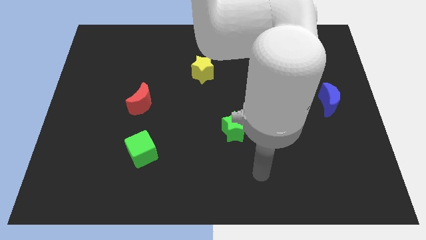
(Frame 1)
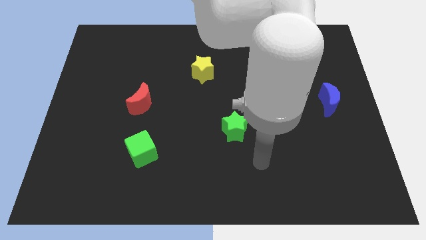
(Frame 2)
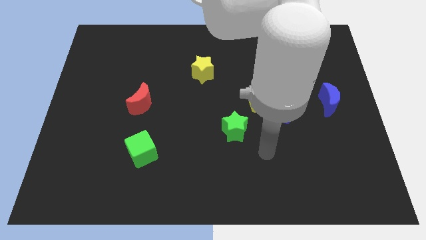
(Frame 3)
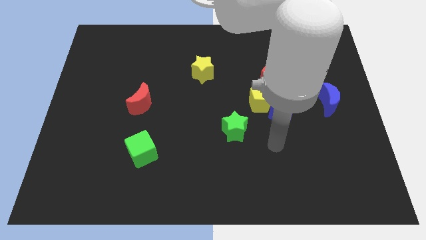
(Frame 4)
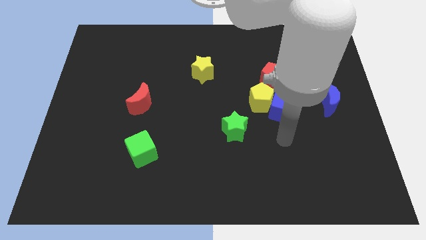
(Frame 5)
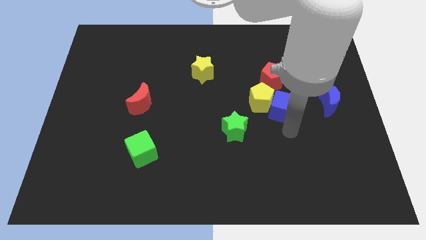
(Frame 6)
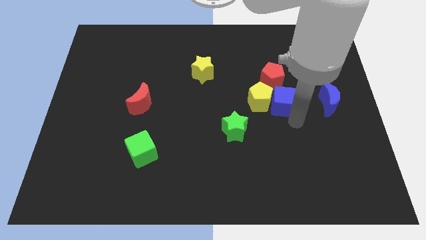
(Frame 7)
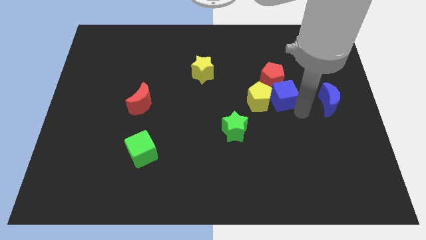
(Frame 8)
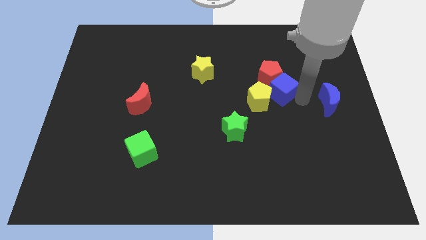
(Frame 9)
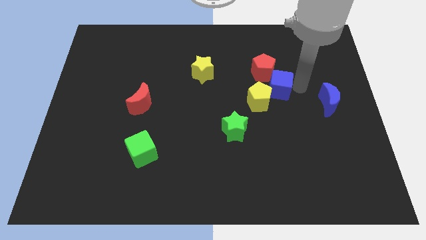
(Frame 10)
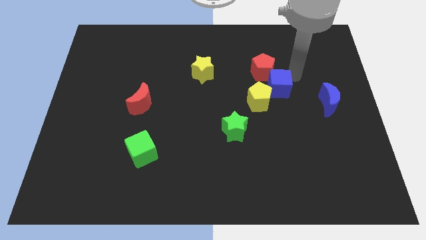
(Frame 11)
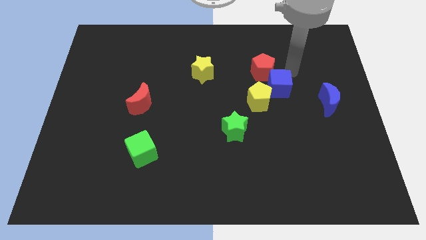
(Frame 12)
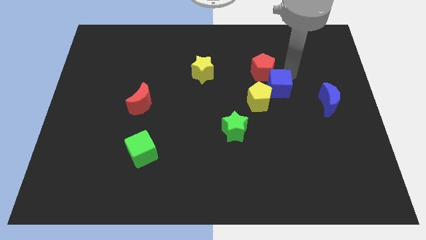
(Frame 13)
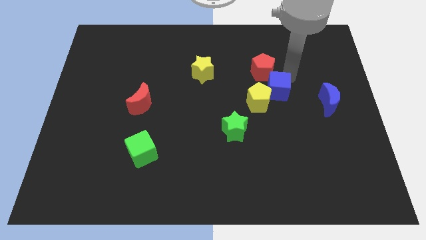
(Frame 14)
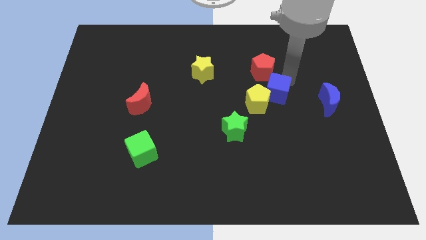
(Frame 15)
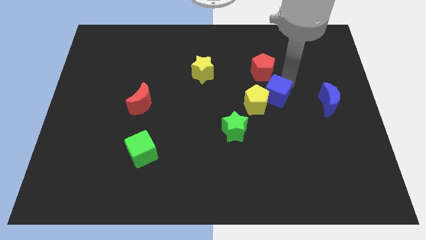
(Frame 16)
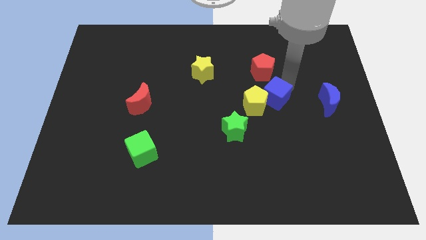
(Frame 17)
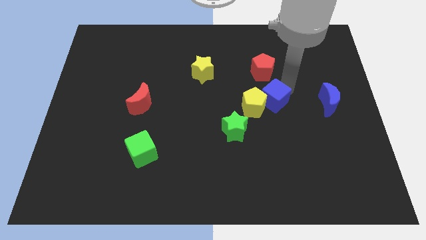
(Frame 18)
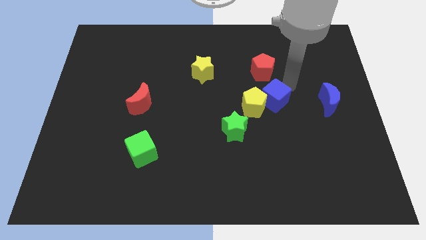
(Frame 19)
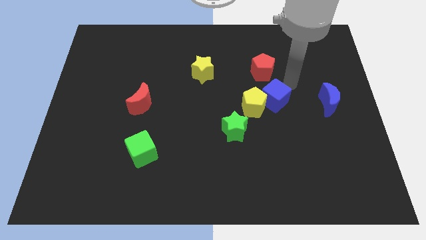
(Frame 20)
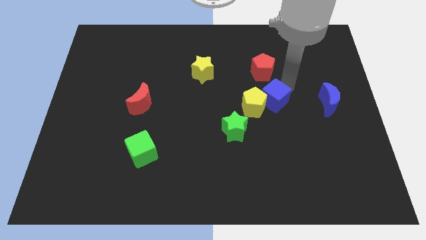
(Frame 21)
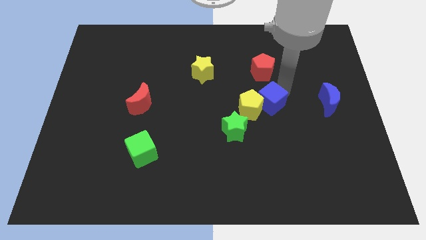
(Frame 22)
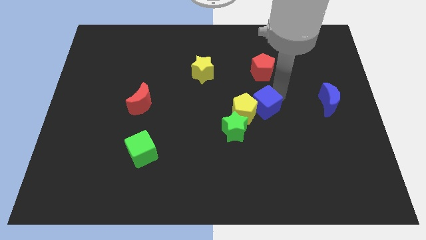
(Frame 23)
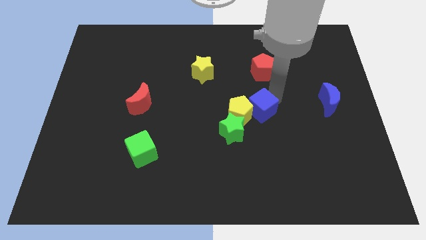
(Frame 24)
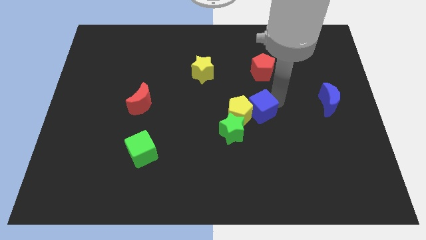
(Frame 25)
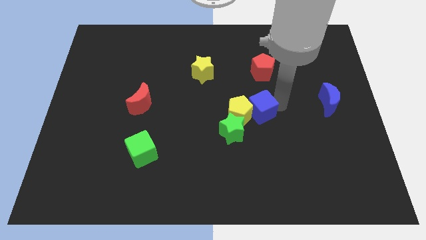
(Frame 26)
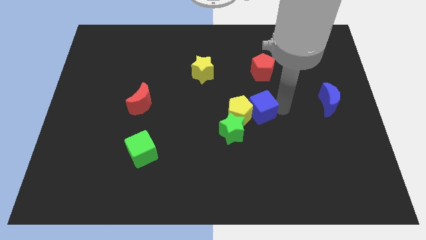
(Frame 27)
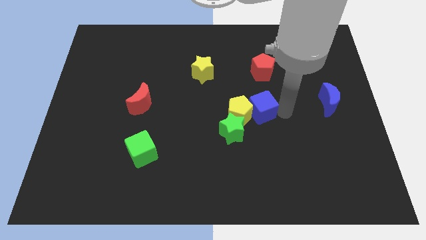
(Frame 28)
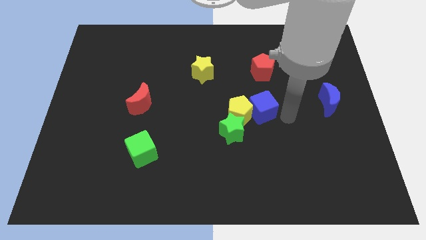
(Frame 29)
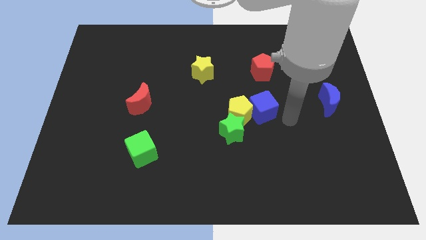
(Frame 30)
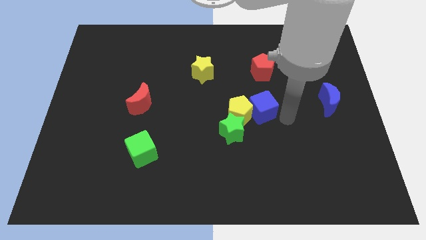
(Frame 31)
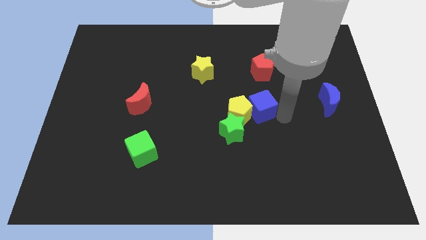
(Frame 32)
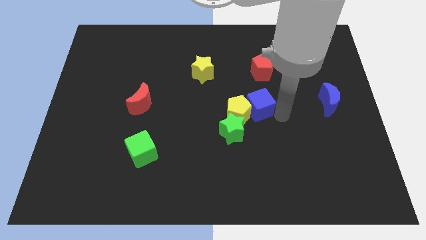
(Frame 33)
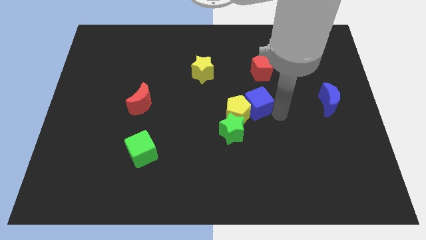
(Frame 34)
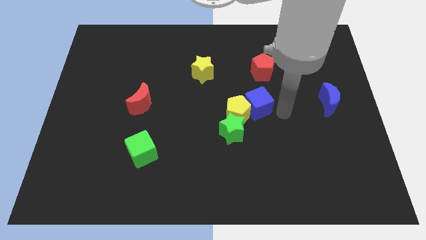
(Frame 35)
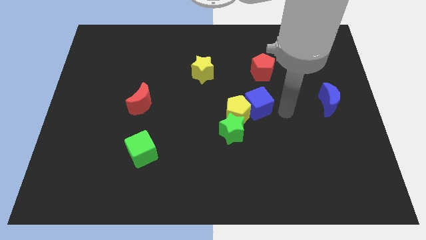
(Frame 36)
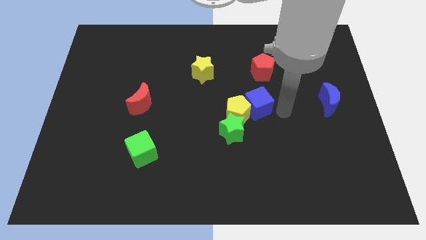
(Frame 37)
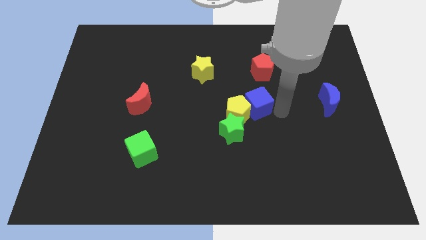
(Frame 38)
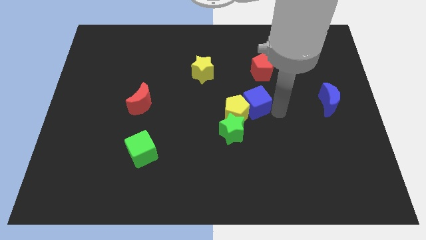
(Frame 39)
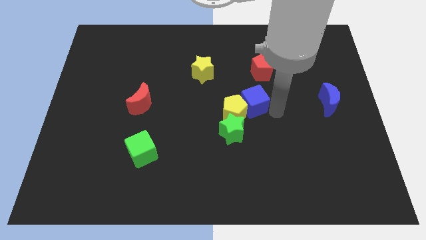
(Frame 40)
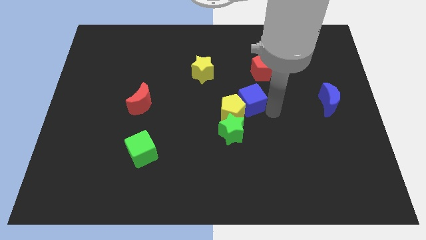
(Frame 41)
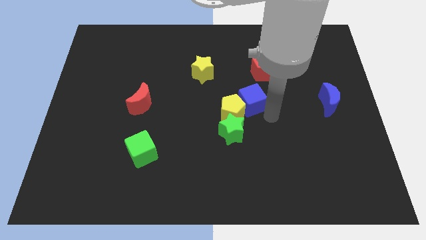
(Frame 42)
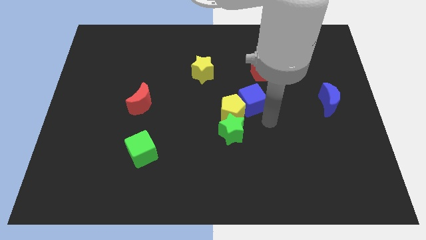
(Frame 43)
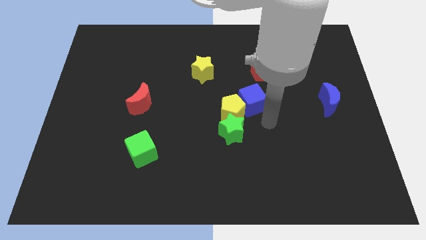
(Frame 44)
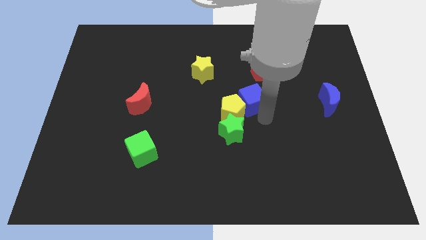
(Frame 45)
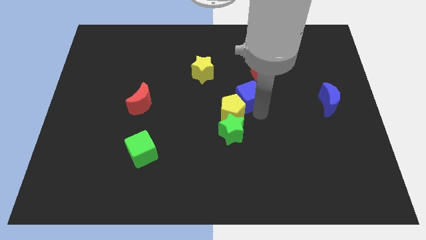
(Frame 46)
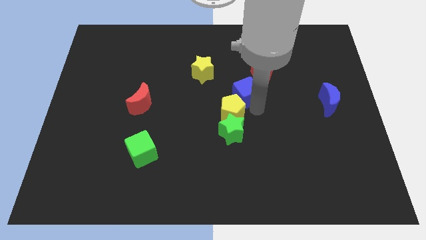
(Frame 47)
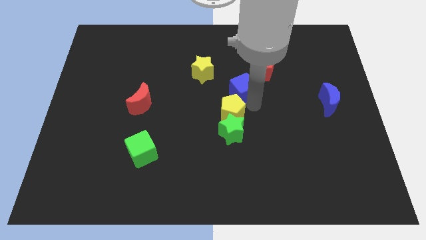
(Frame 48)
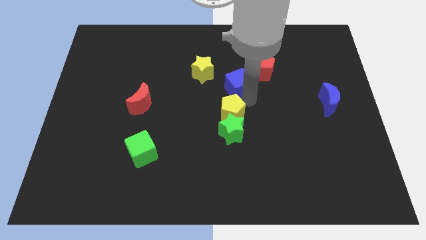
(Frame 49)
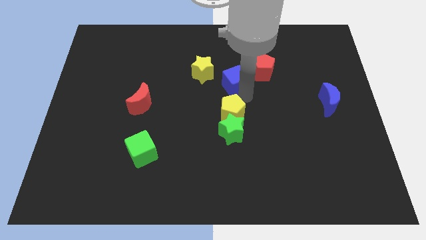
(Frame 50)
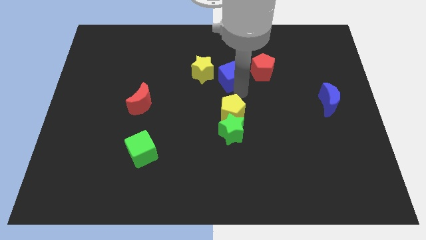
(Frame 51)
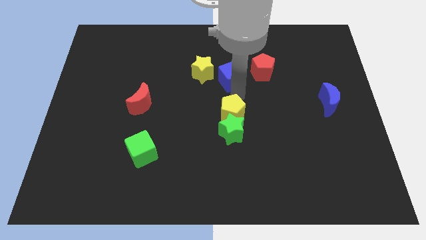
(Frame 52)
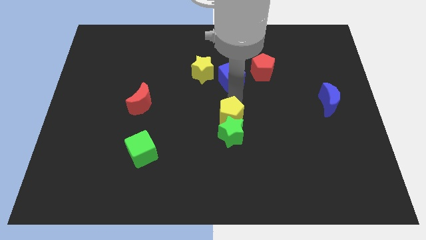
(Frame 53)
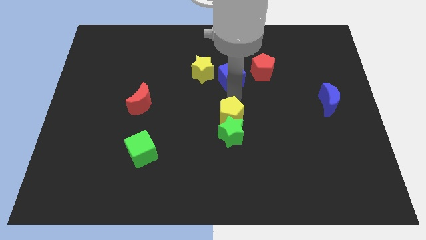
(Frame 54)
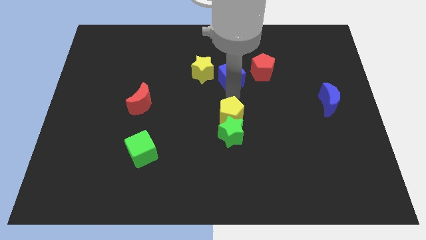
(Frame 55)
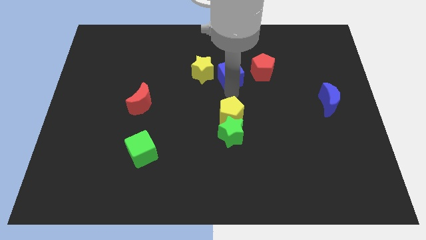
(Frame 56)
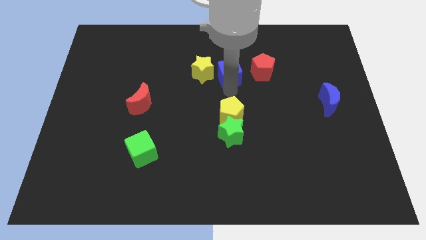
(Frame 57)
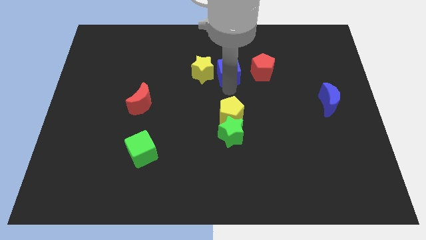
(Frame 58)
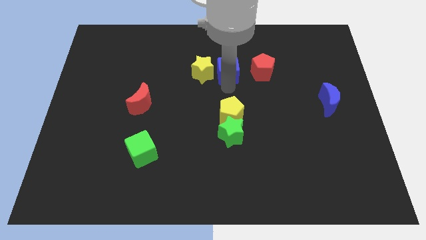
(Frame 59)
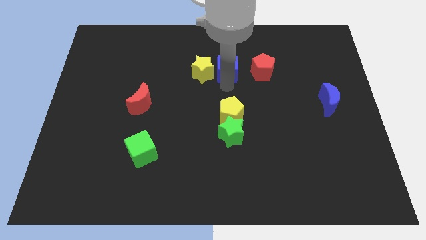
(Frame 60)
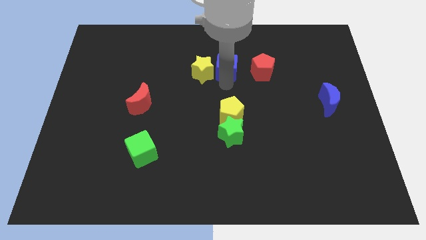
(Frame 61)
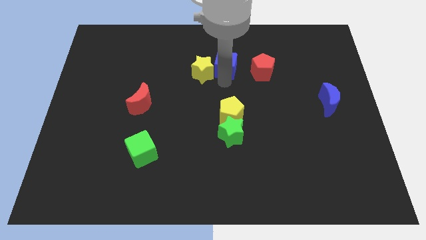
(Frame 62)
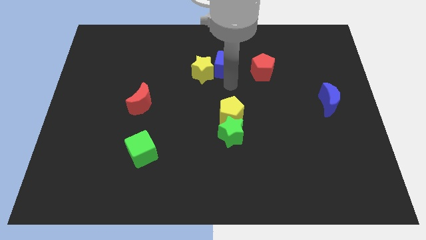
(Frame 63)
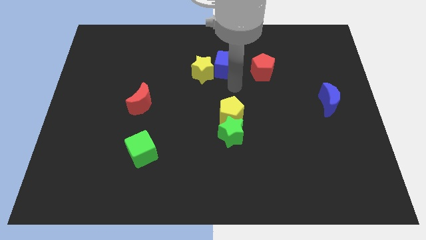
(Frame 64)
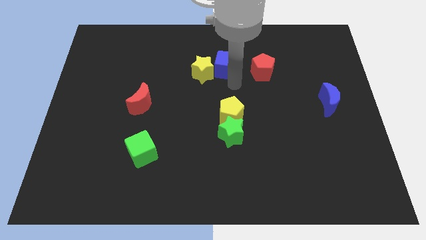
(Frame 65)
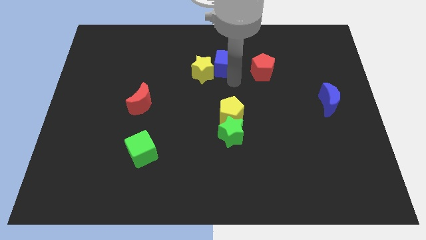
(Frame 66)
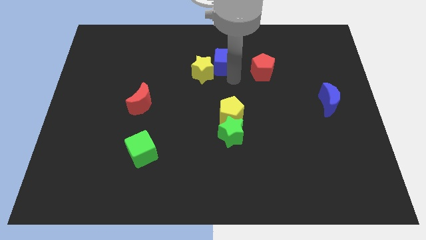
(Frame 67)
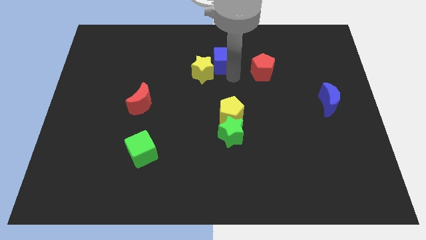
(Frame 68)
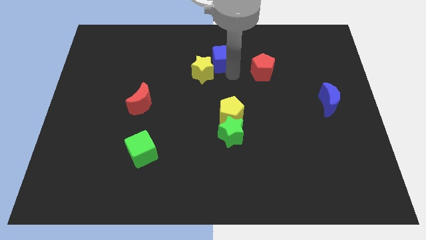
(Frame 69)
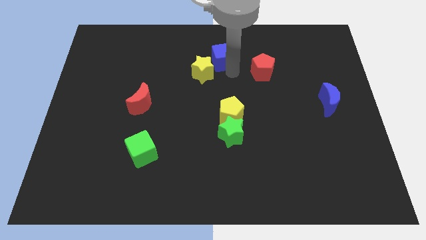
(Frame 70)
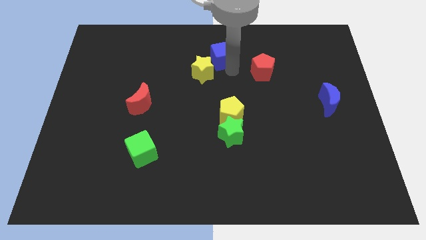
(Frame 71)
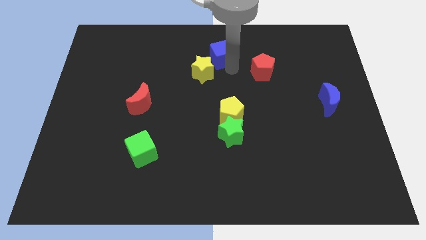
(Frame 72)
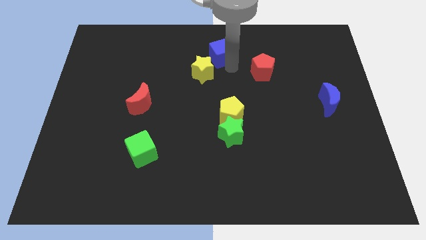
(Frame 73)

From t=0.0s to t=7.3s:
move the blue cube to the top
